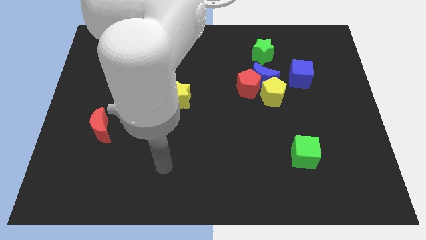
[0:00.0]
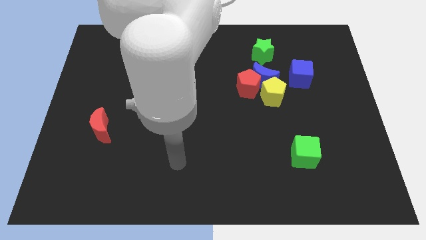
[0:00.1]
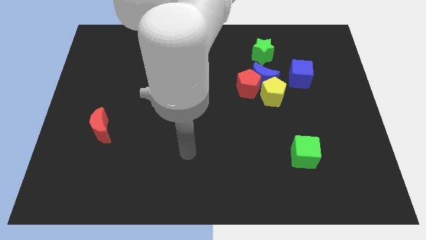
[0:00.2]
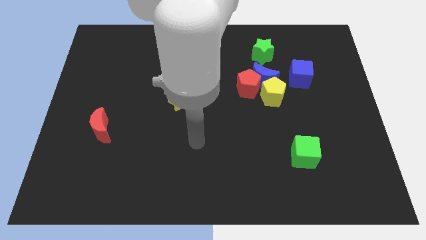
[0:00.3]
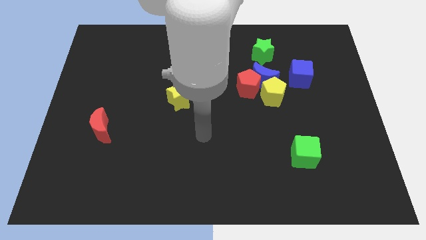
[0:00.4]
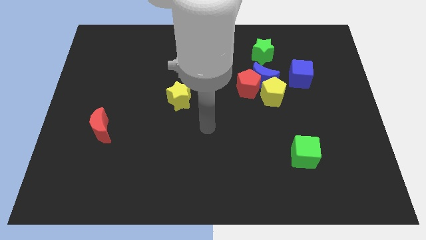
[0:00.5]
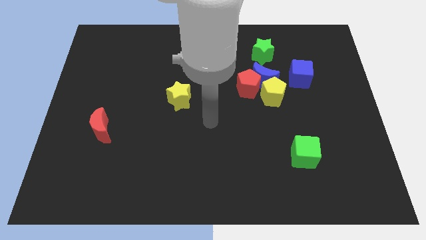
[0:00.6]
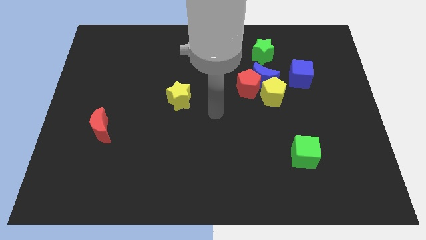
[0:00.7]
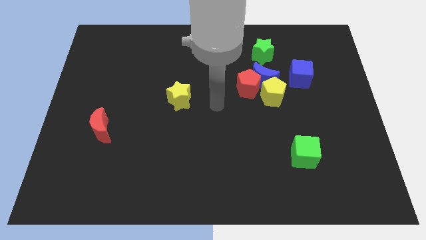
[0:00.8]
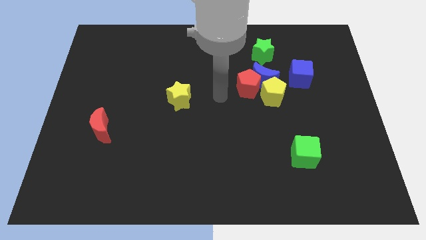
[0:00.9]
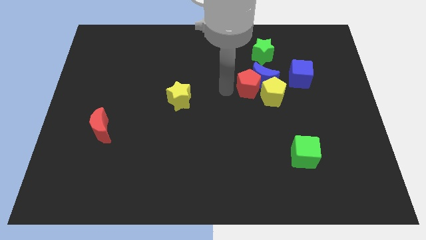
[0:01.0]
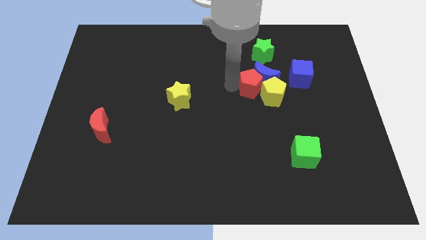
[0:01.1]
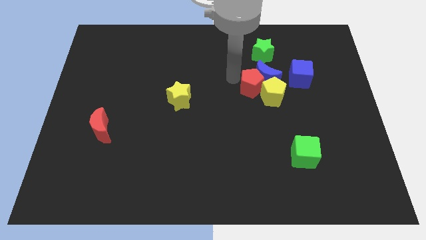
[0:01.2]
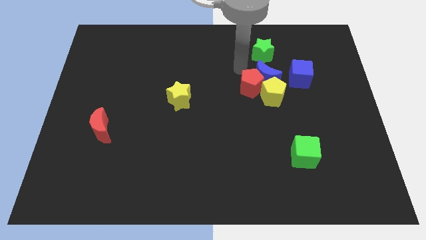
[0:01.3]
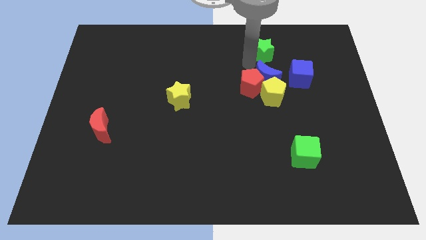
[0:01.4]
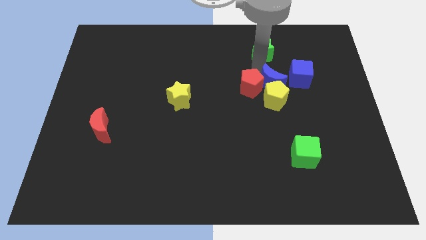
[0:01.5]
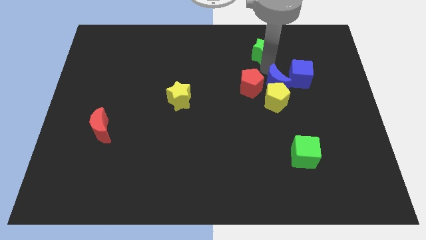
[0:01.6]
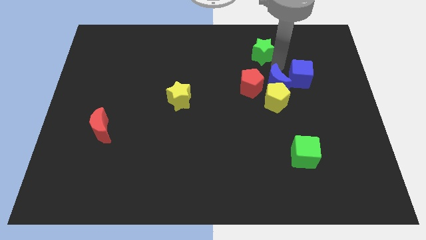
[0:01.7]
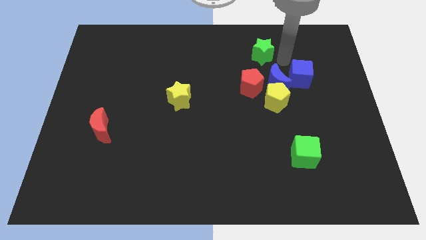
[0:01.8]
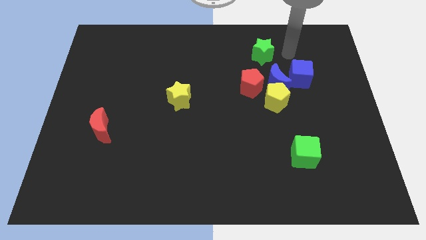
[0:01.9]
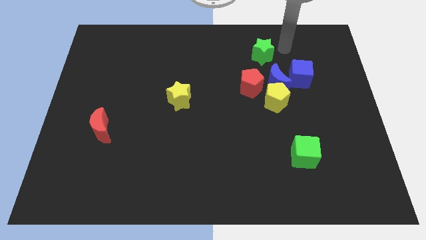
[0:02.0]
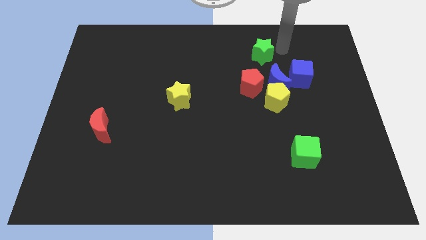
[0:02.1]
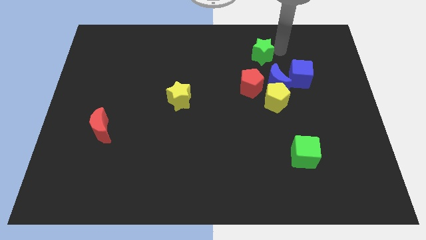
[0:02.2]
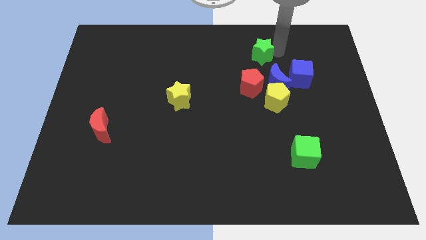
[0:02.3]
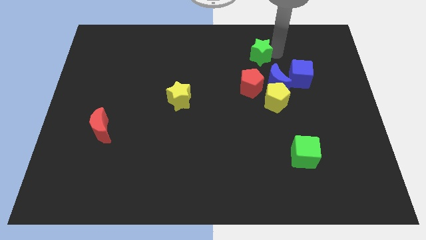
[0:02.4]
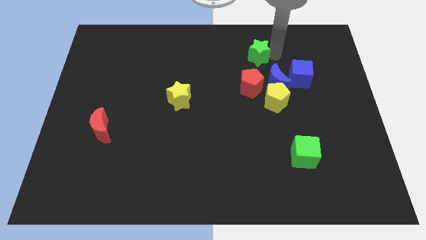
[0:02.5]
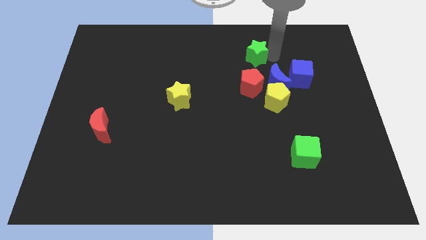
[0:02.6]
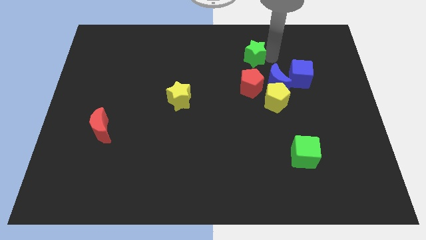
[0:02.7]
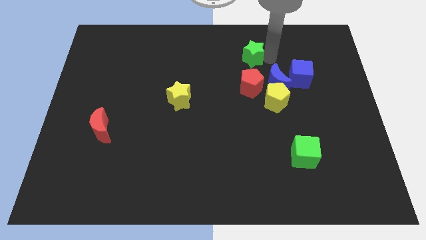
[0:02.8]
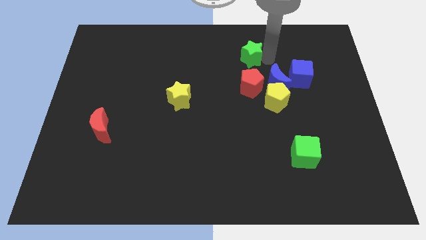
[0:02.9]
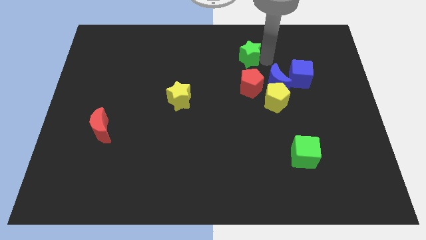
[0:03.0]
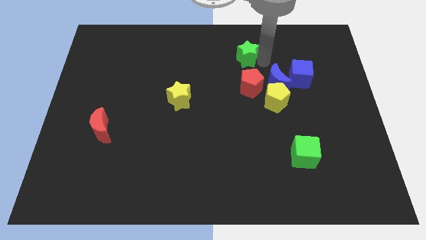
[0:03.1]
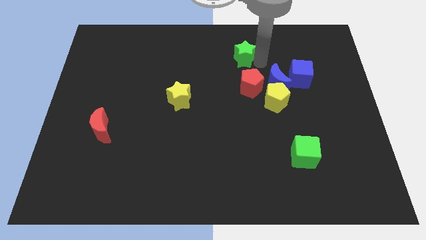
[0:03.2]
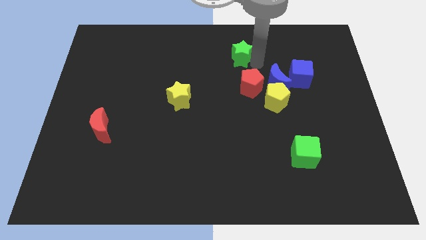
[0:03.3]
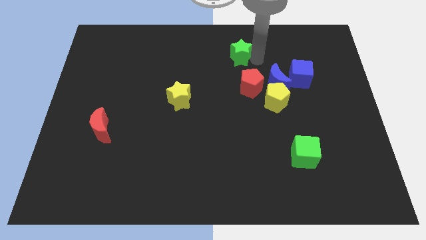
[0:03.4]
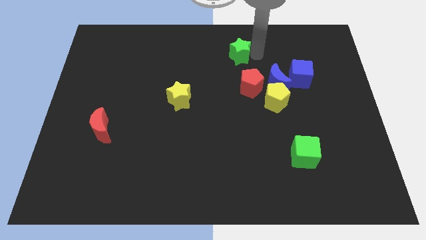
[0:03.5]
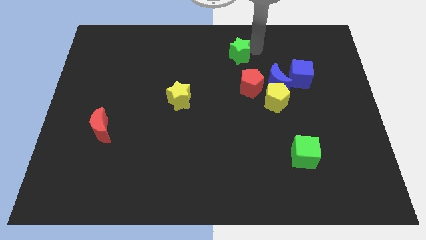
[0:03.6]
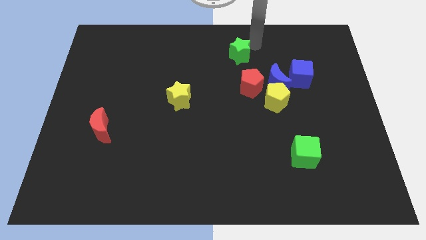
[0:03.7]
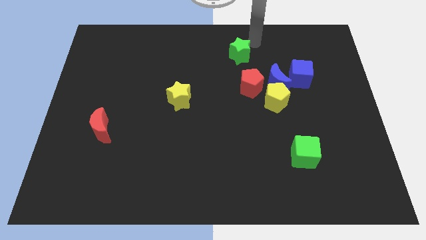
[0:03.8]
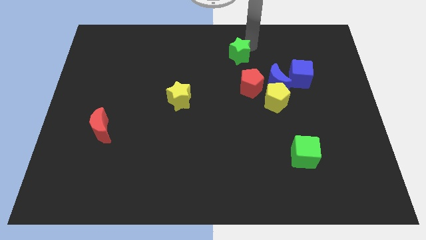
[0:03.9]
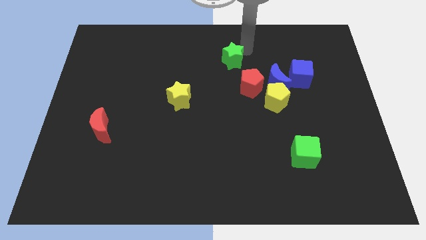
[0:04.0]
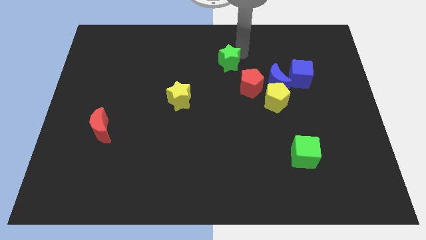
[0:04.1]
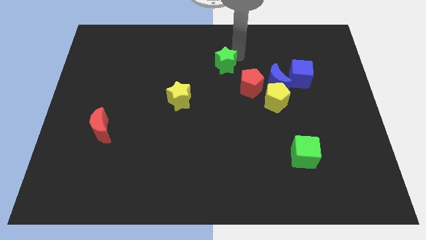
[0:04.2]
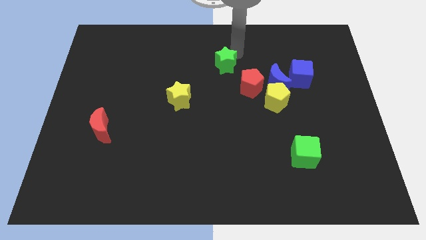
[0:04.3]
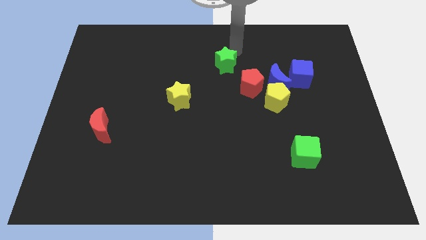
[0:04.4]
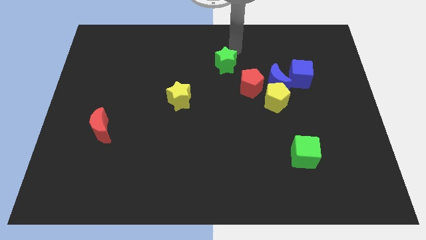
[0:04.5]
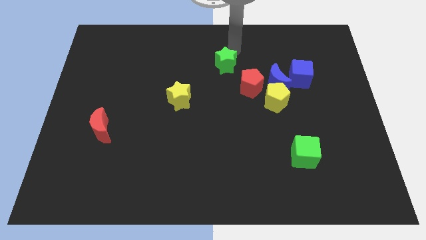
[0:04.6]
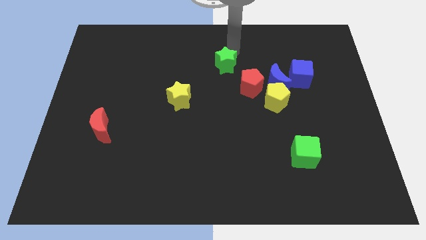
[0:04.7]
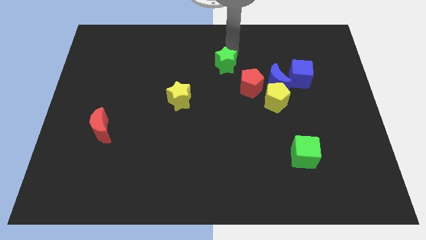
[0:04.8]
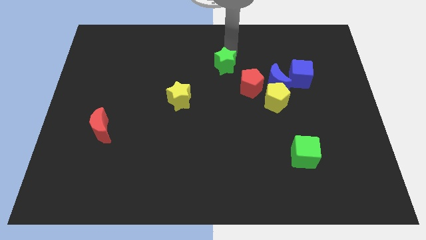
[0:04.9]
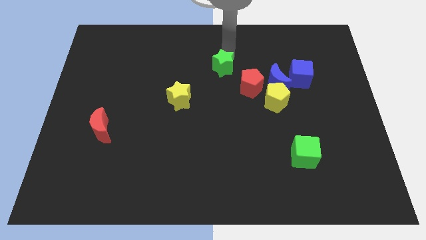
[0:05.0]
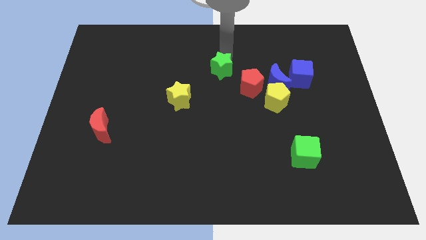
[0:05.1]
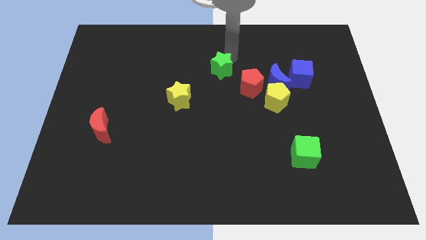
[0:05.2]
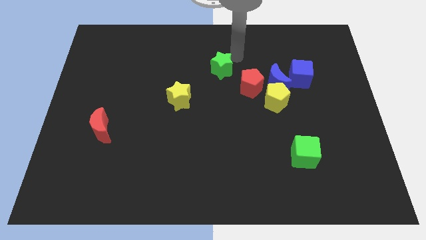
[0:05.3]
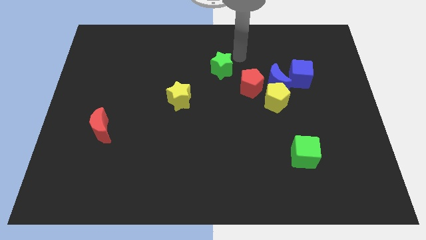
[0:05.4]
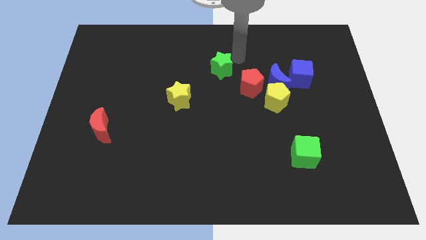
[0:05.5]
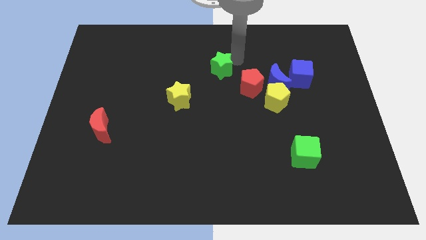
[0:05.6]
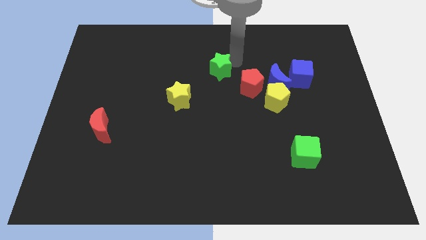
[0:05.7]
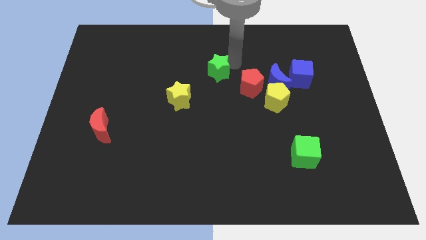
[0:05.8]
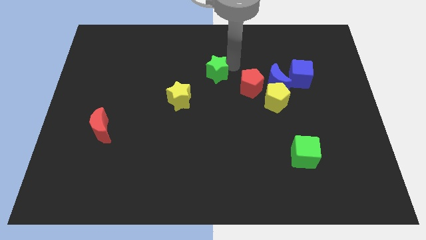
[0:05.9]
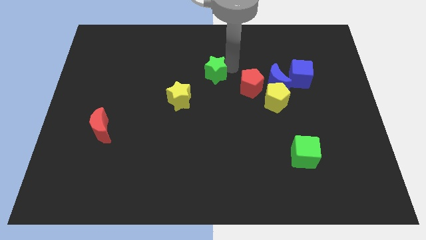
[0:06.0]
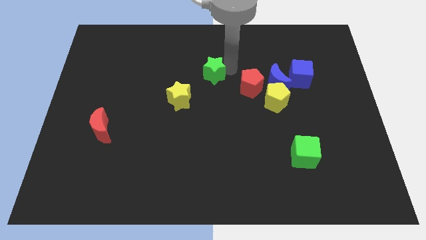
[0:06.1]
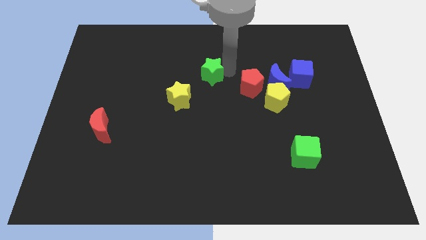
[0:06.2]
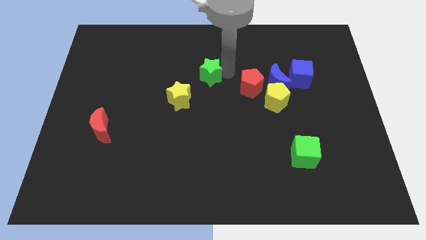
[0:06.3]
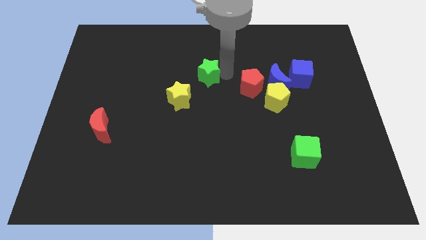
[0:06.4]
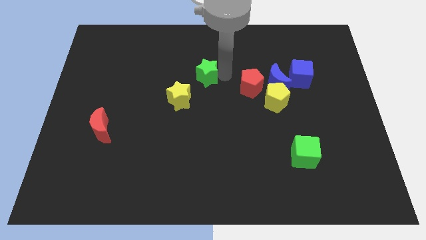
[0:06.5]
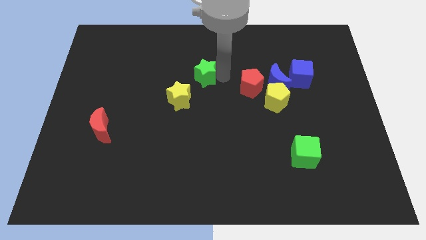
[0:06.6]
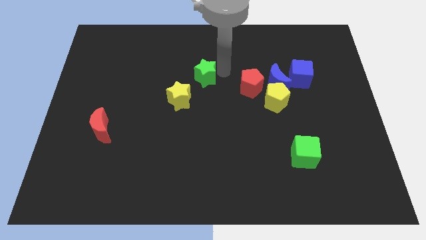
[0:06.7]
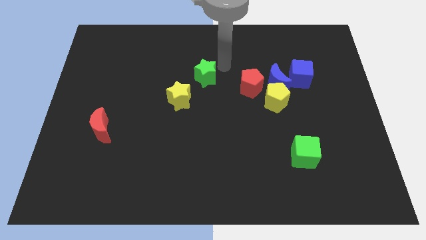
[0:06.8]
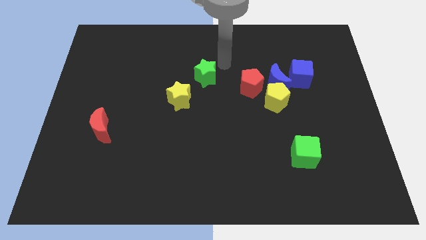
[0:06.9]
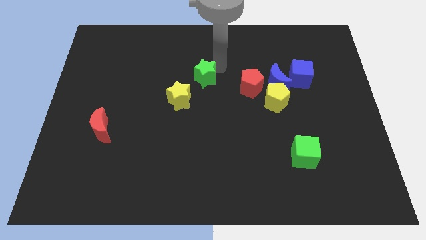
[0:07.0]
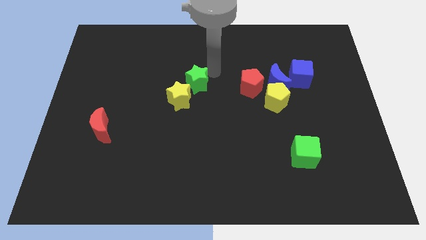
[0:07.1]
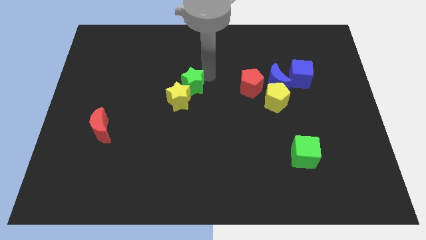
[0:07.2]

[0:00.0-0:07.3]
slide the green star to the yellow star
